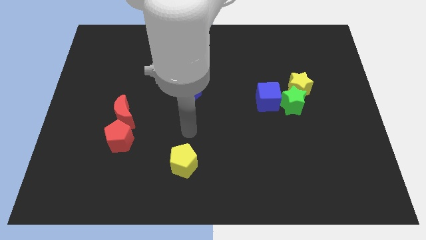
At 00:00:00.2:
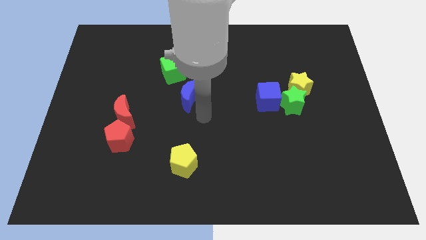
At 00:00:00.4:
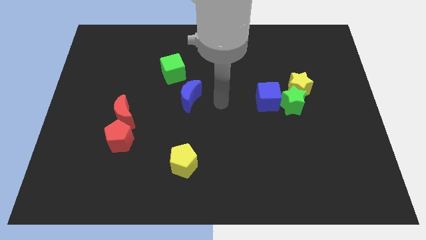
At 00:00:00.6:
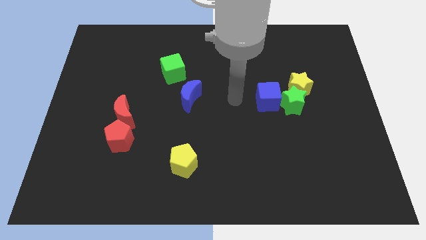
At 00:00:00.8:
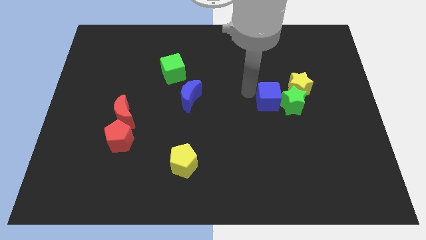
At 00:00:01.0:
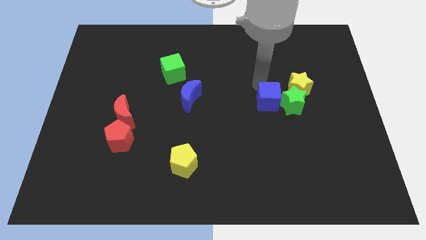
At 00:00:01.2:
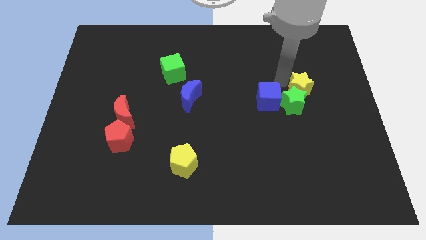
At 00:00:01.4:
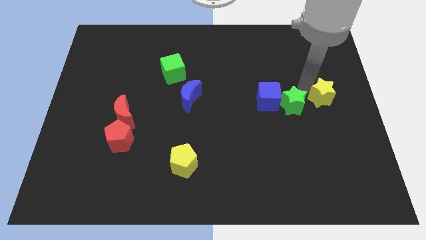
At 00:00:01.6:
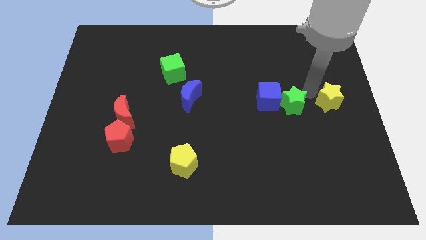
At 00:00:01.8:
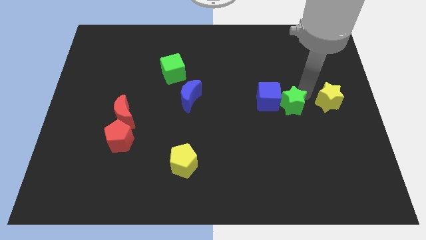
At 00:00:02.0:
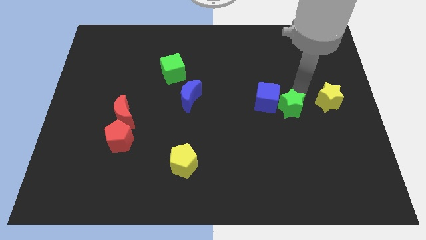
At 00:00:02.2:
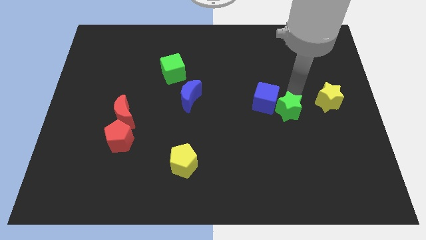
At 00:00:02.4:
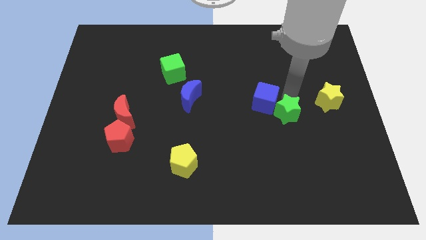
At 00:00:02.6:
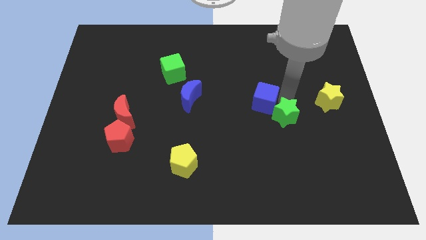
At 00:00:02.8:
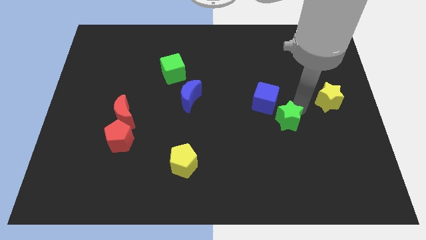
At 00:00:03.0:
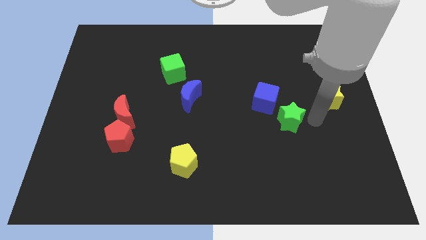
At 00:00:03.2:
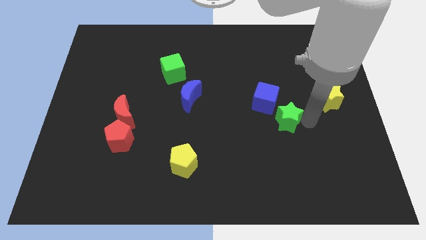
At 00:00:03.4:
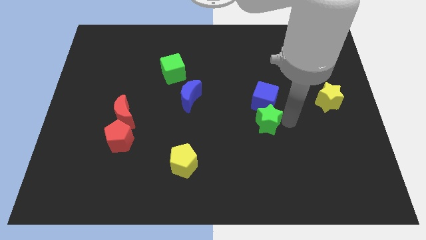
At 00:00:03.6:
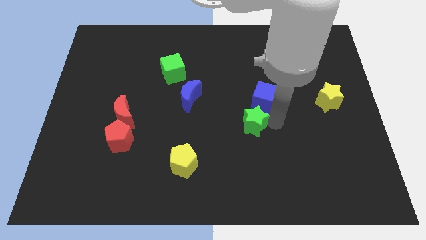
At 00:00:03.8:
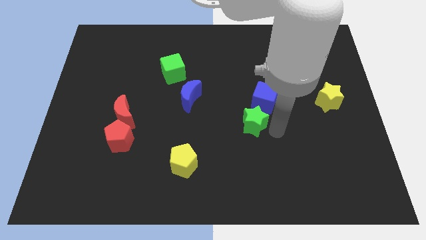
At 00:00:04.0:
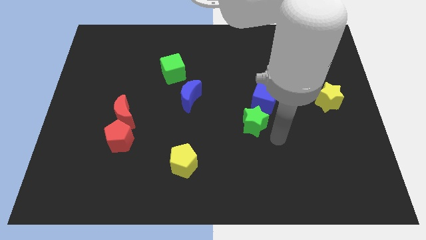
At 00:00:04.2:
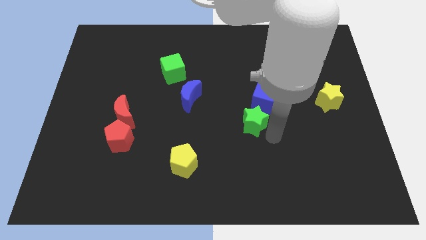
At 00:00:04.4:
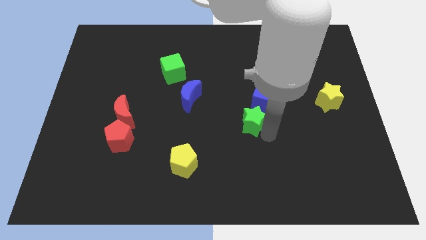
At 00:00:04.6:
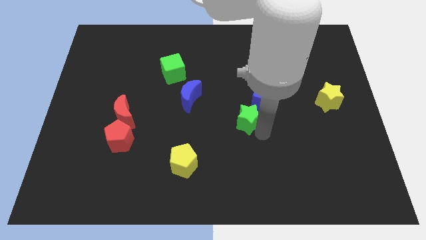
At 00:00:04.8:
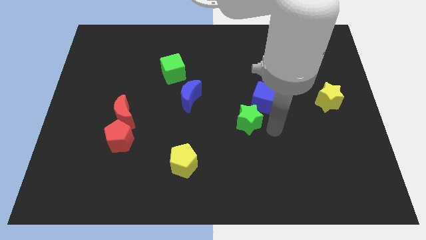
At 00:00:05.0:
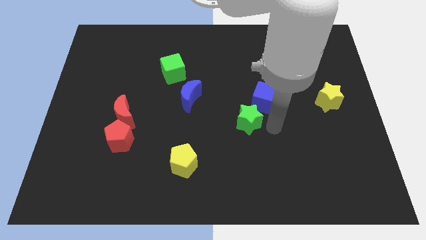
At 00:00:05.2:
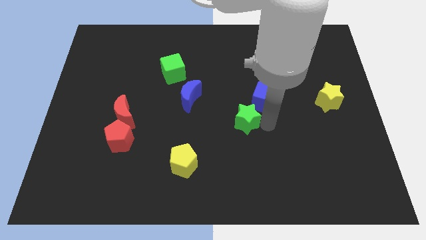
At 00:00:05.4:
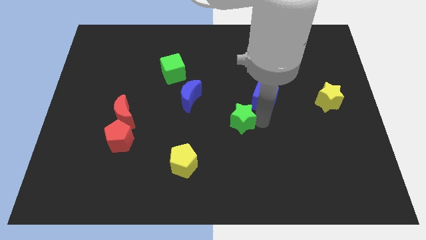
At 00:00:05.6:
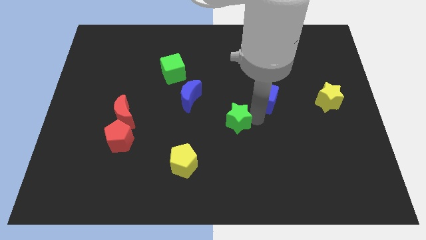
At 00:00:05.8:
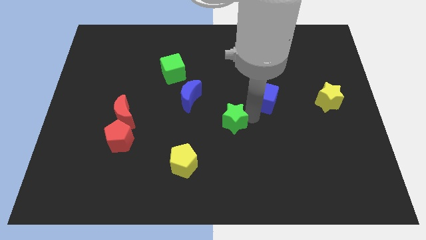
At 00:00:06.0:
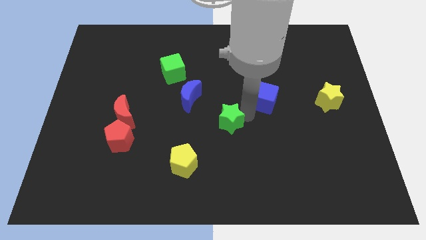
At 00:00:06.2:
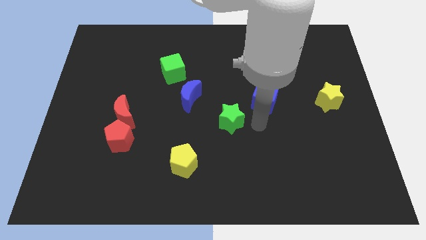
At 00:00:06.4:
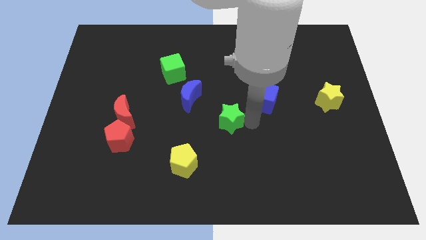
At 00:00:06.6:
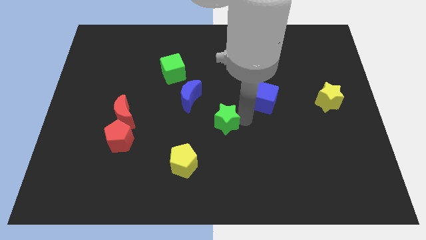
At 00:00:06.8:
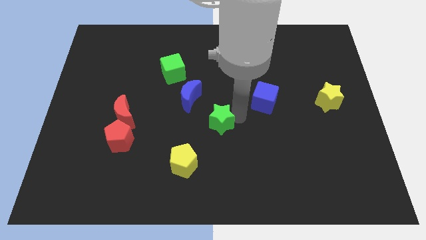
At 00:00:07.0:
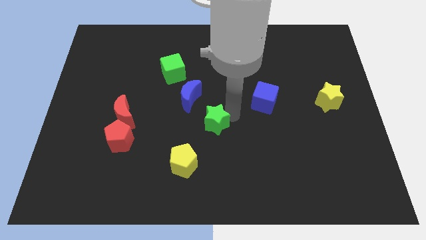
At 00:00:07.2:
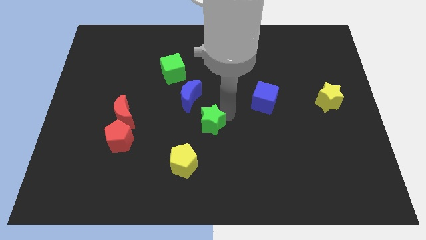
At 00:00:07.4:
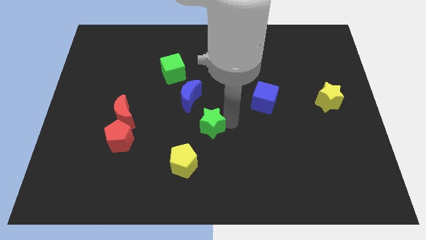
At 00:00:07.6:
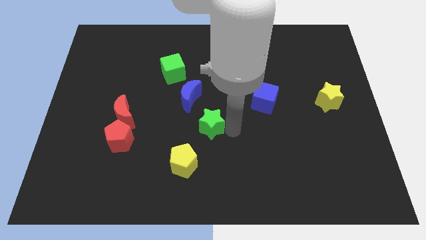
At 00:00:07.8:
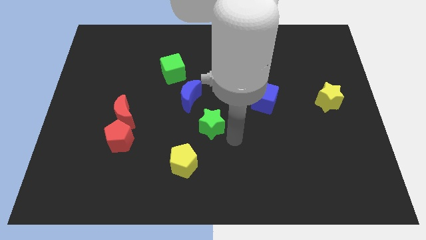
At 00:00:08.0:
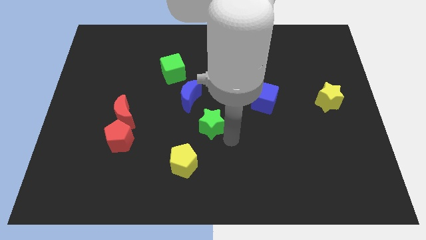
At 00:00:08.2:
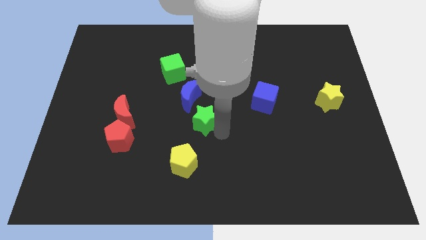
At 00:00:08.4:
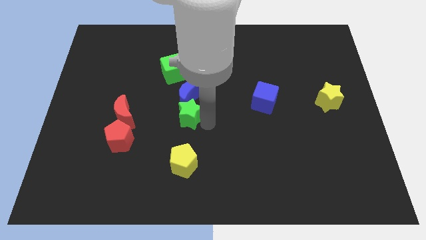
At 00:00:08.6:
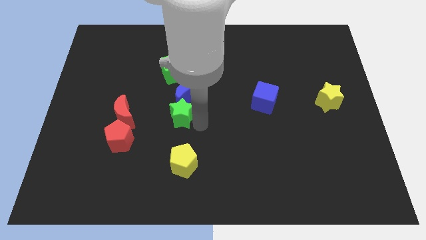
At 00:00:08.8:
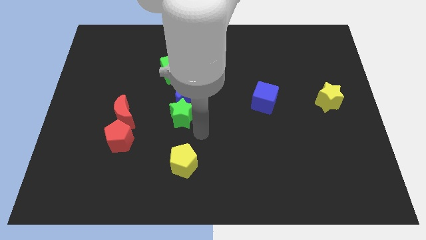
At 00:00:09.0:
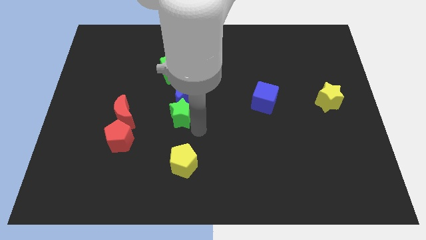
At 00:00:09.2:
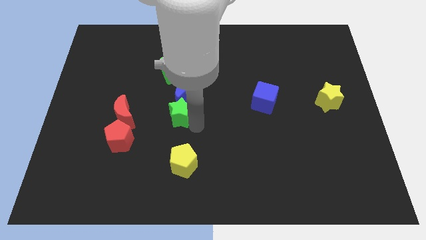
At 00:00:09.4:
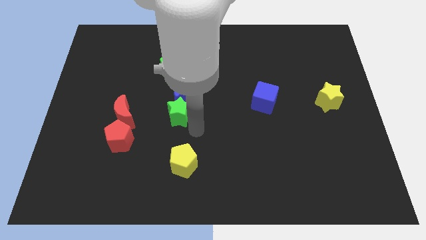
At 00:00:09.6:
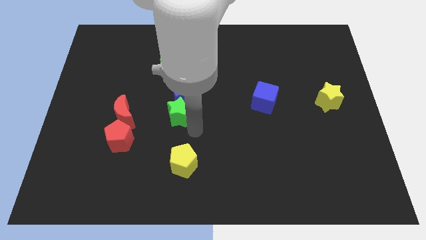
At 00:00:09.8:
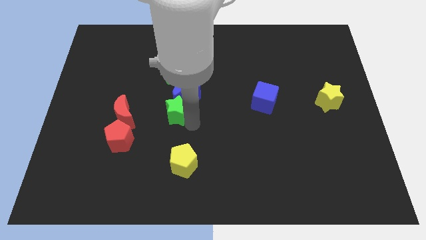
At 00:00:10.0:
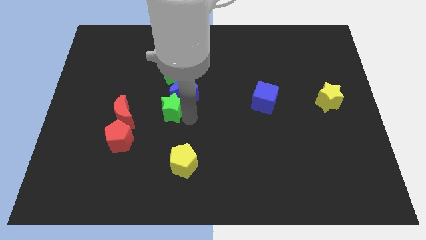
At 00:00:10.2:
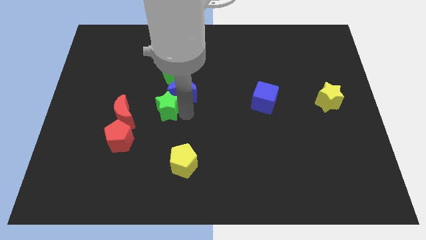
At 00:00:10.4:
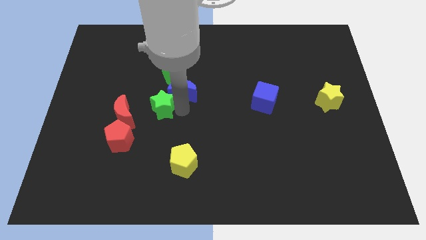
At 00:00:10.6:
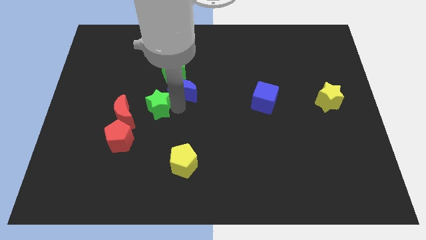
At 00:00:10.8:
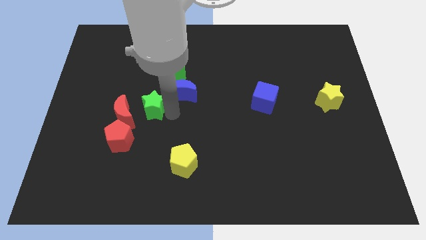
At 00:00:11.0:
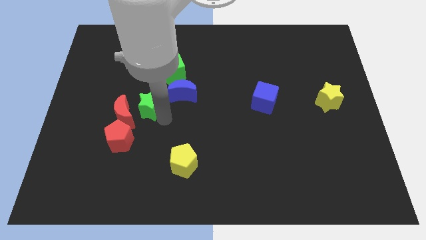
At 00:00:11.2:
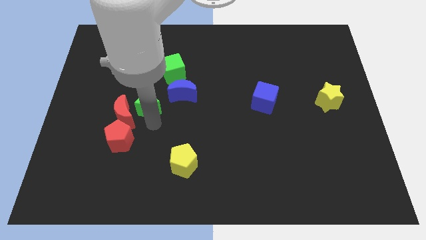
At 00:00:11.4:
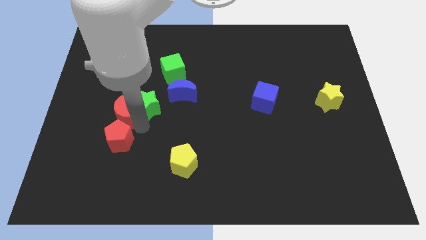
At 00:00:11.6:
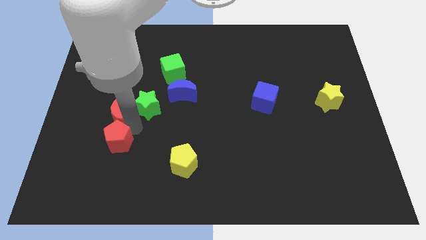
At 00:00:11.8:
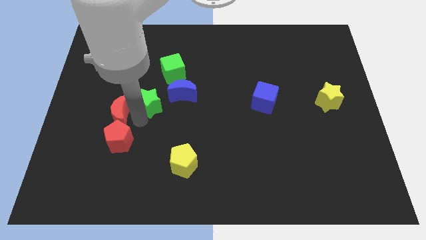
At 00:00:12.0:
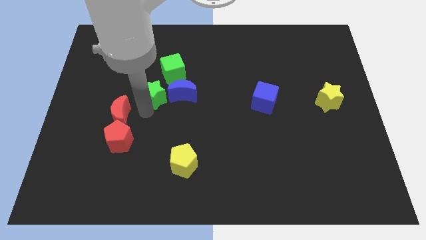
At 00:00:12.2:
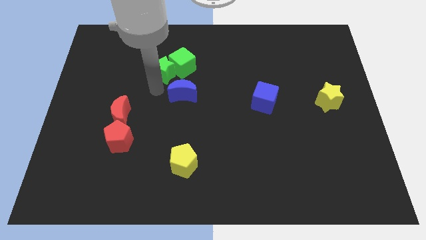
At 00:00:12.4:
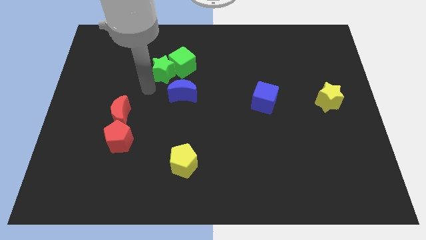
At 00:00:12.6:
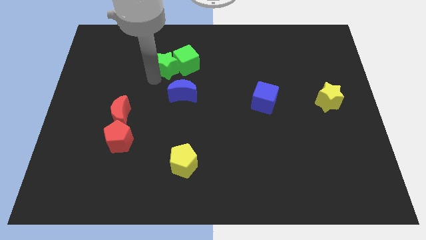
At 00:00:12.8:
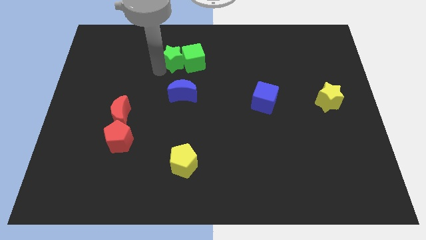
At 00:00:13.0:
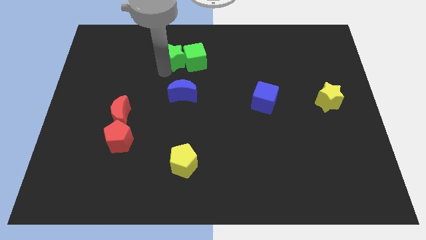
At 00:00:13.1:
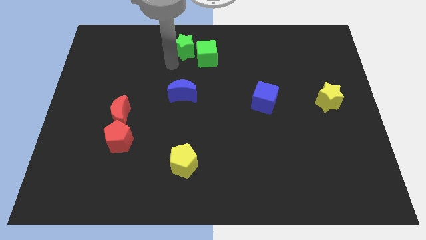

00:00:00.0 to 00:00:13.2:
push the green star to the top side
